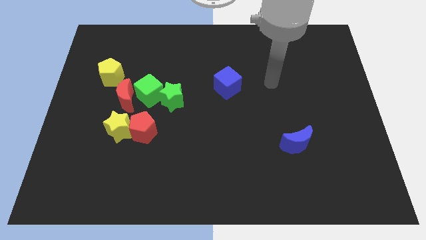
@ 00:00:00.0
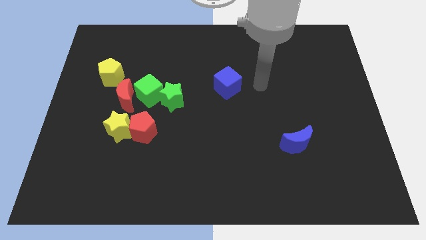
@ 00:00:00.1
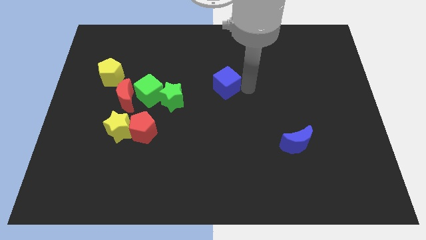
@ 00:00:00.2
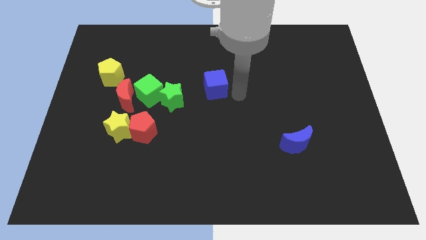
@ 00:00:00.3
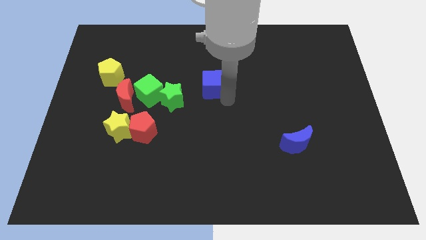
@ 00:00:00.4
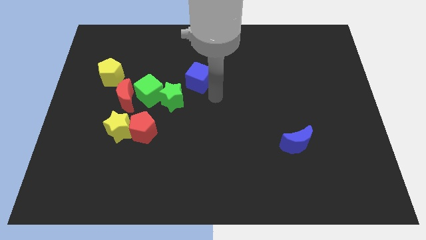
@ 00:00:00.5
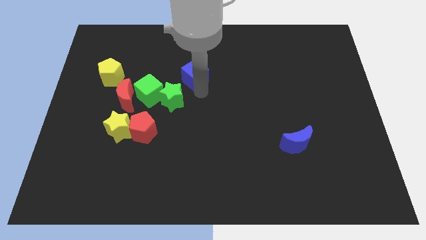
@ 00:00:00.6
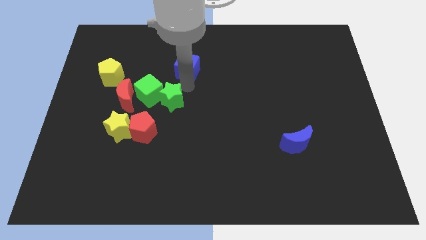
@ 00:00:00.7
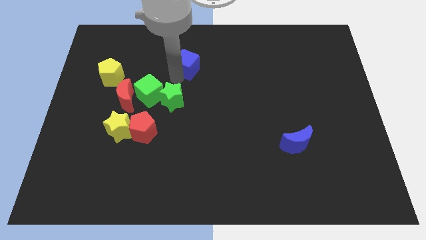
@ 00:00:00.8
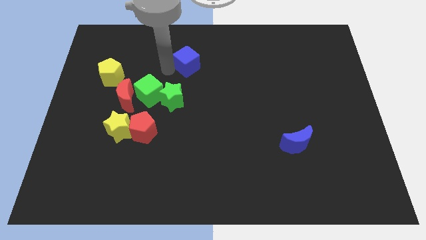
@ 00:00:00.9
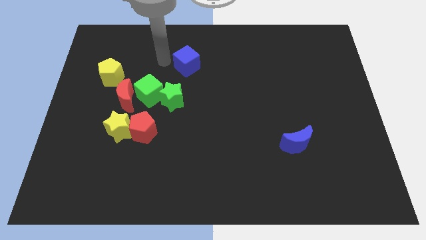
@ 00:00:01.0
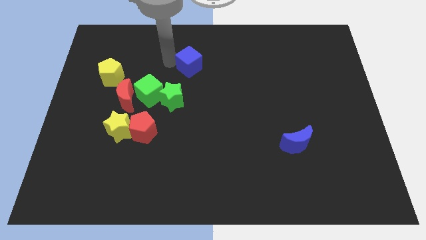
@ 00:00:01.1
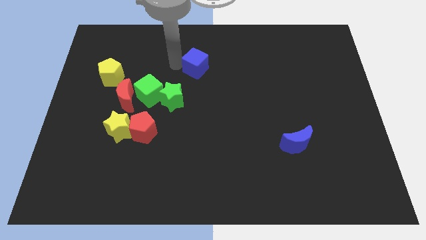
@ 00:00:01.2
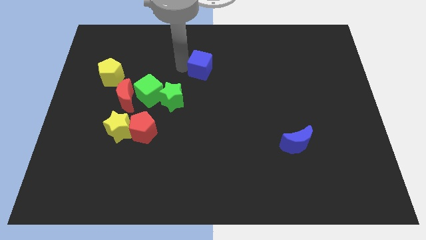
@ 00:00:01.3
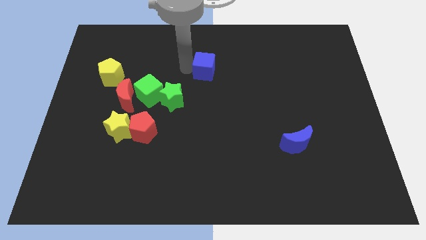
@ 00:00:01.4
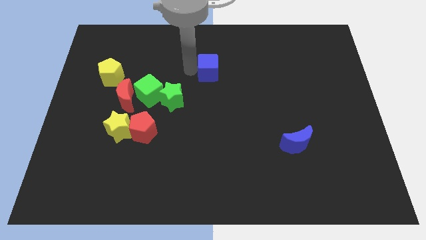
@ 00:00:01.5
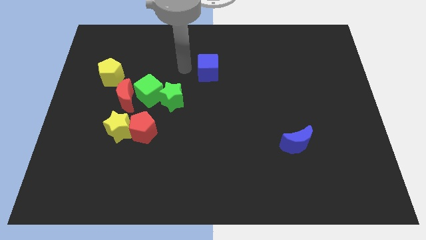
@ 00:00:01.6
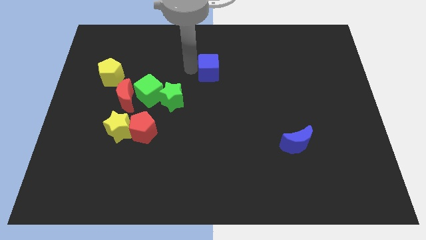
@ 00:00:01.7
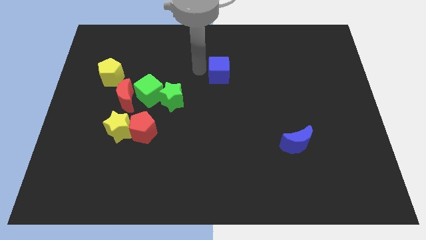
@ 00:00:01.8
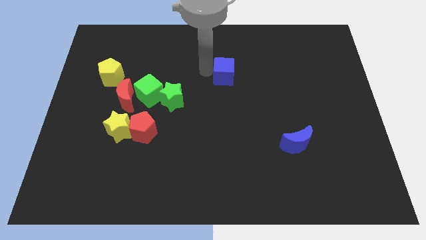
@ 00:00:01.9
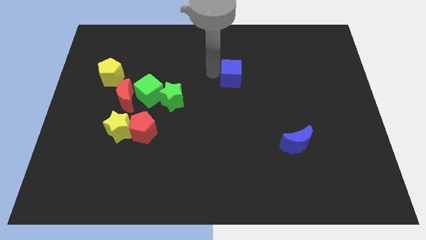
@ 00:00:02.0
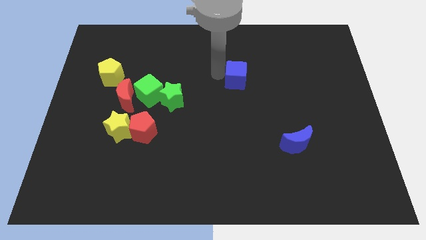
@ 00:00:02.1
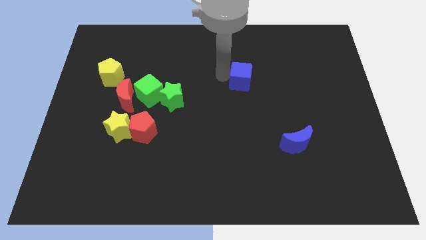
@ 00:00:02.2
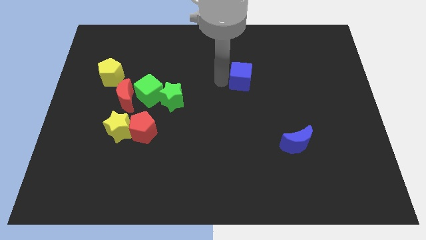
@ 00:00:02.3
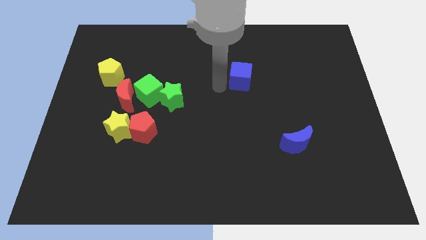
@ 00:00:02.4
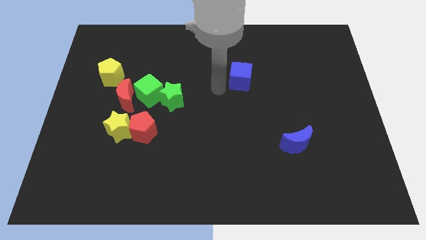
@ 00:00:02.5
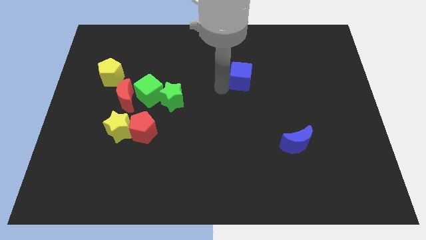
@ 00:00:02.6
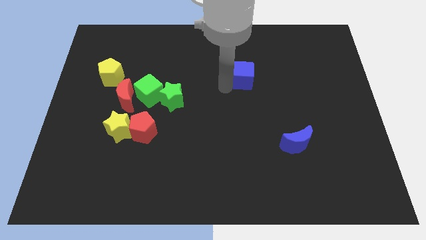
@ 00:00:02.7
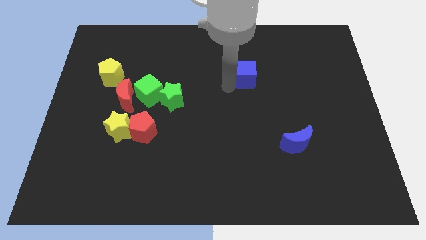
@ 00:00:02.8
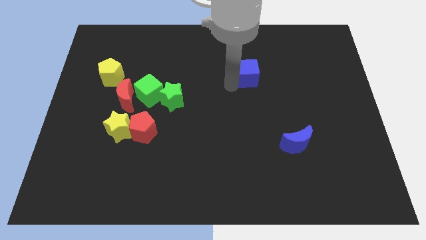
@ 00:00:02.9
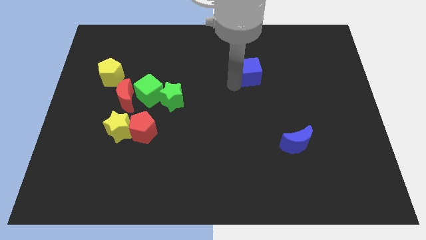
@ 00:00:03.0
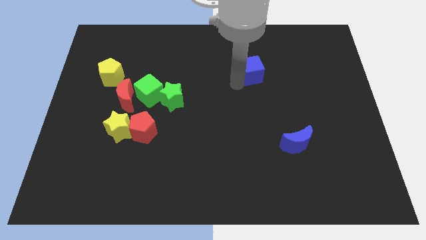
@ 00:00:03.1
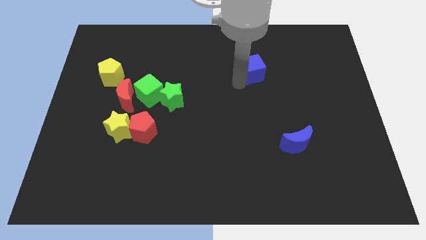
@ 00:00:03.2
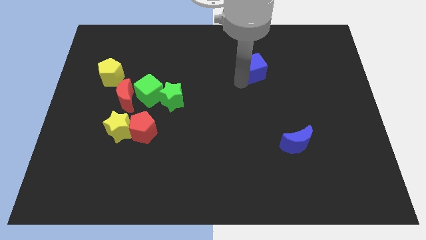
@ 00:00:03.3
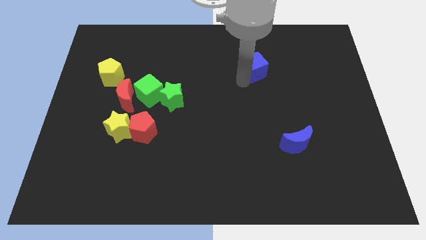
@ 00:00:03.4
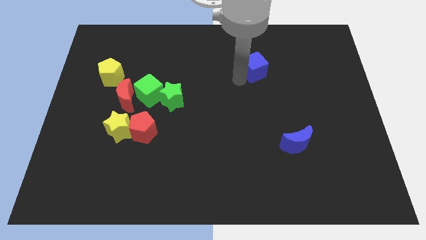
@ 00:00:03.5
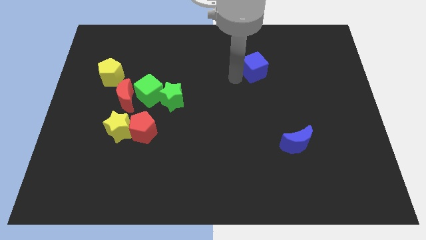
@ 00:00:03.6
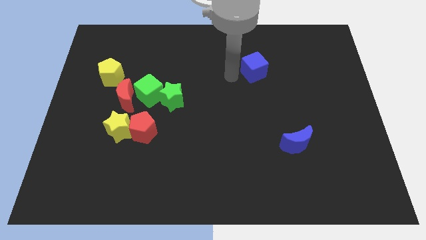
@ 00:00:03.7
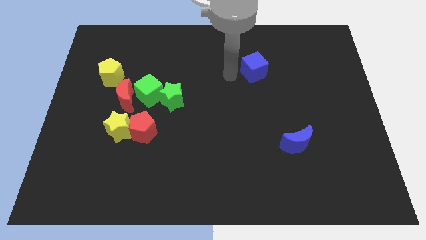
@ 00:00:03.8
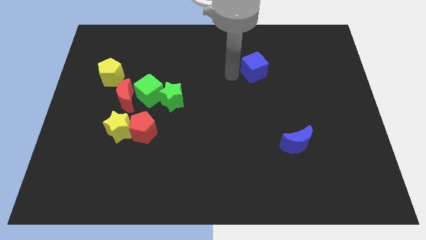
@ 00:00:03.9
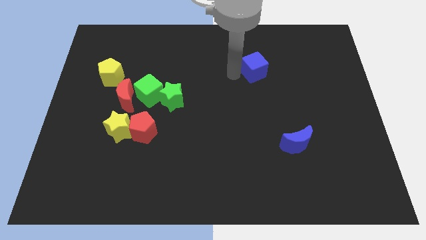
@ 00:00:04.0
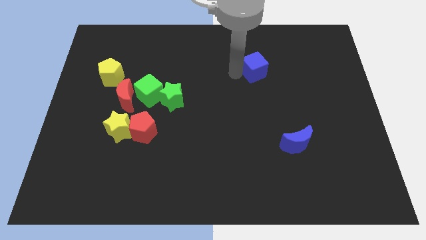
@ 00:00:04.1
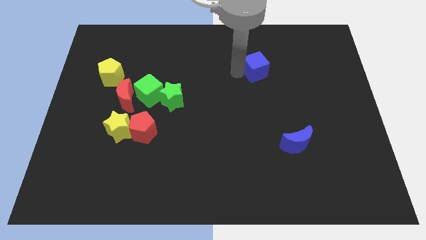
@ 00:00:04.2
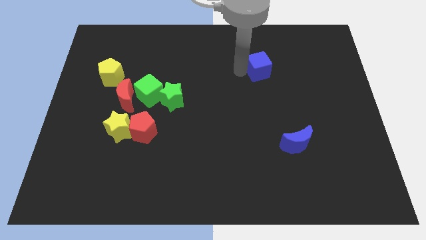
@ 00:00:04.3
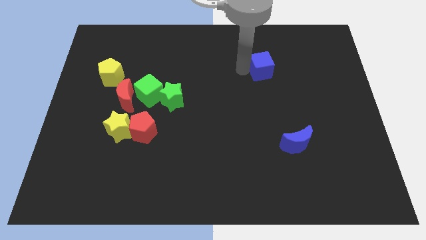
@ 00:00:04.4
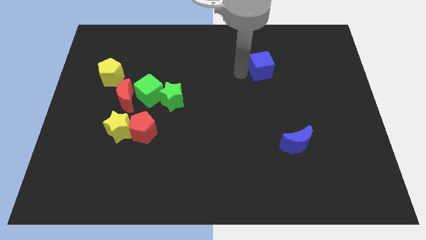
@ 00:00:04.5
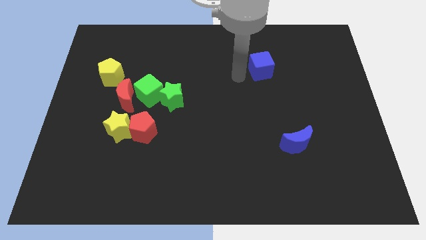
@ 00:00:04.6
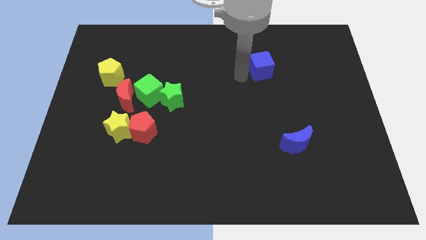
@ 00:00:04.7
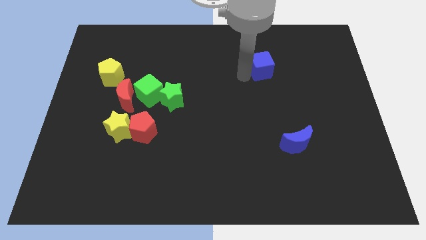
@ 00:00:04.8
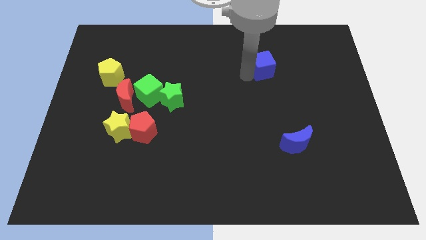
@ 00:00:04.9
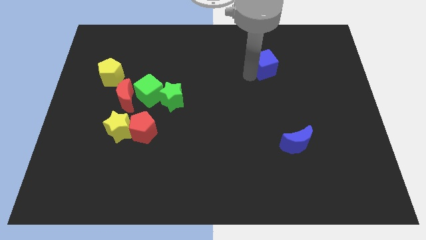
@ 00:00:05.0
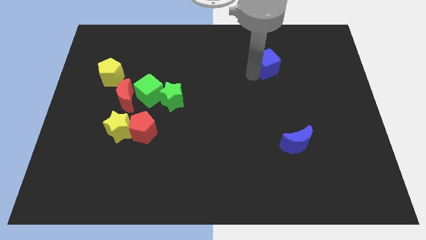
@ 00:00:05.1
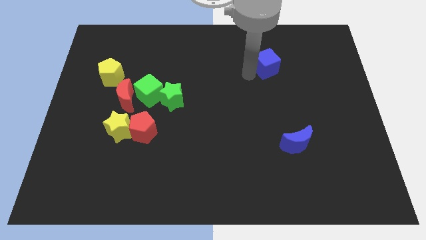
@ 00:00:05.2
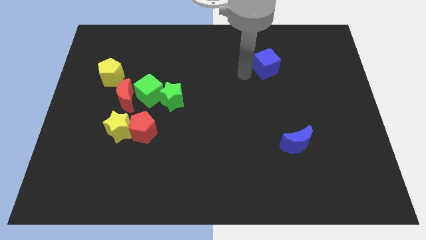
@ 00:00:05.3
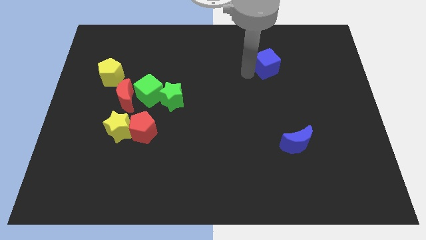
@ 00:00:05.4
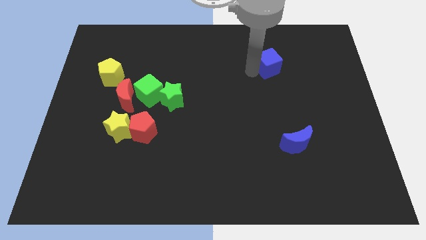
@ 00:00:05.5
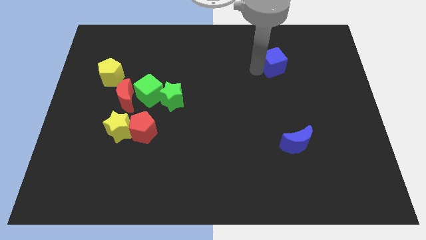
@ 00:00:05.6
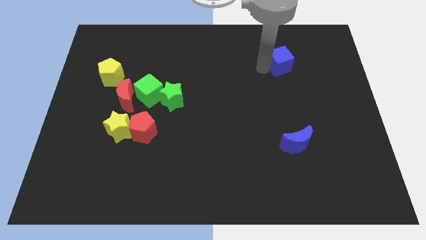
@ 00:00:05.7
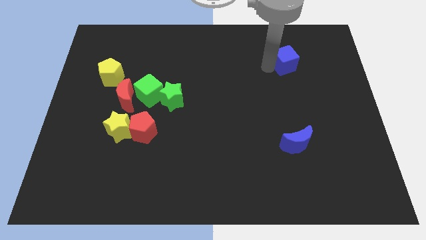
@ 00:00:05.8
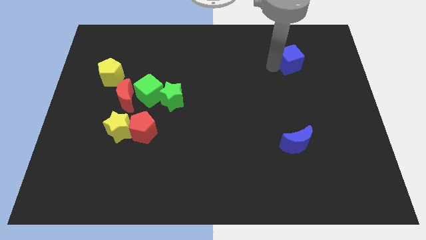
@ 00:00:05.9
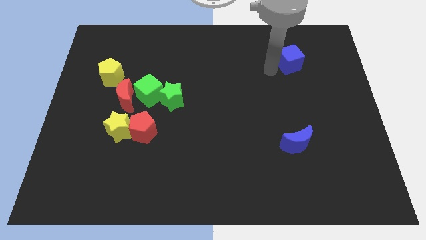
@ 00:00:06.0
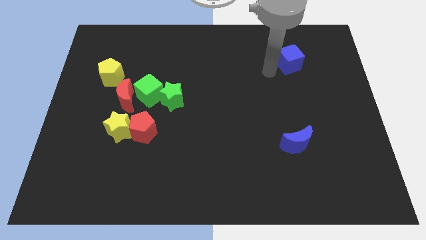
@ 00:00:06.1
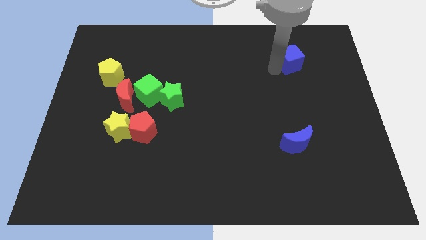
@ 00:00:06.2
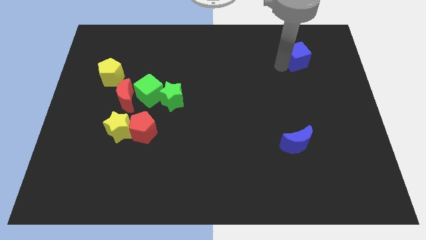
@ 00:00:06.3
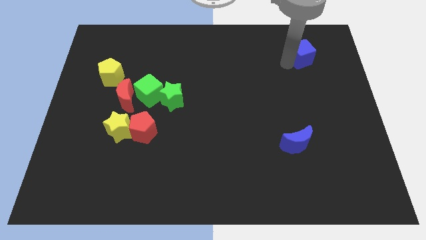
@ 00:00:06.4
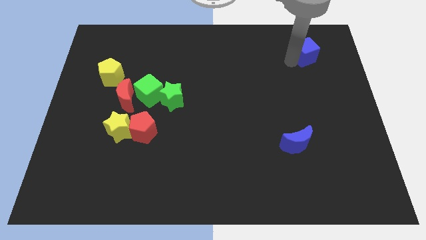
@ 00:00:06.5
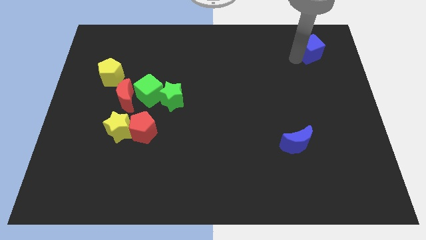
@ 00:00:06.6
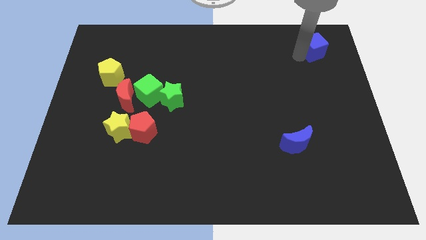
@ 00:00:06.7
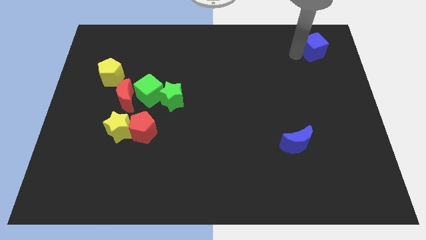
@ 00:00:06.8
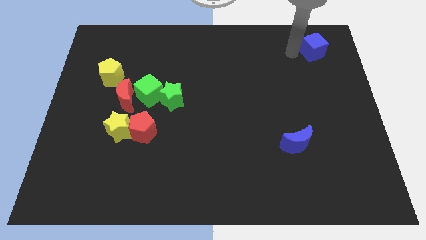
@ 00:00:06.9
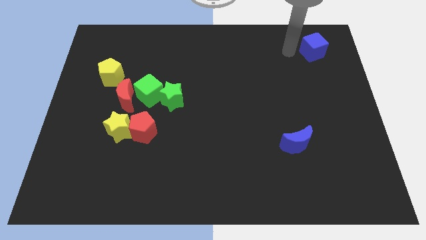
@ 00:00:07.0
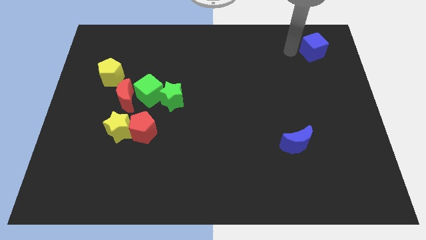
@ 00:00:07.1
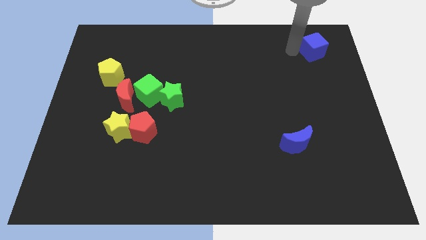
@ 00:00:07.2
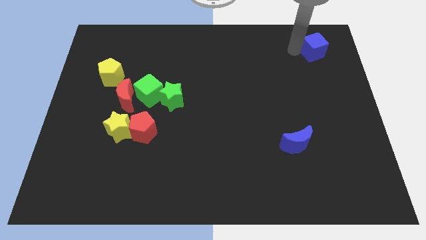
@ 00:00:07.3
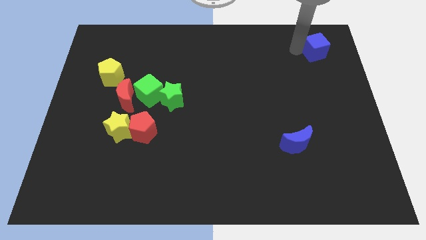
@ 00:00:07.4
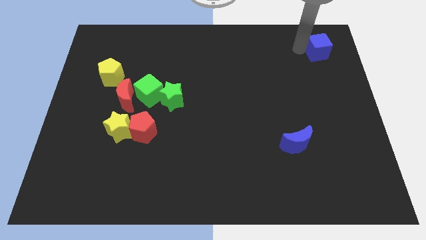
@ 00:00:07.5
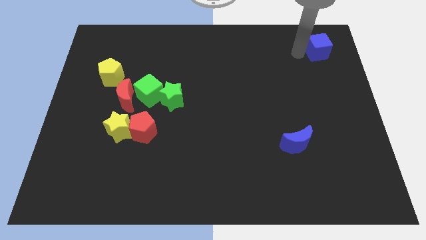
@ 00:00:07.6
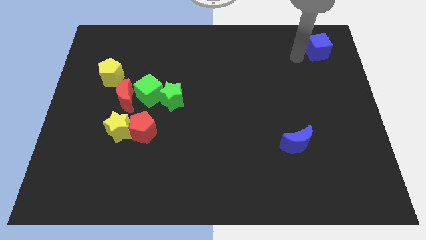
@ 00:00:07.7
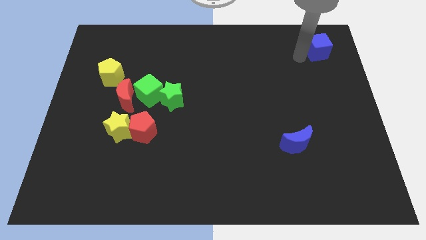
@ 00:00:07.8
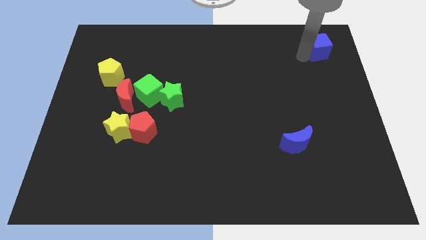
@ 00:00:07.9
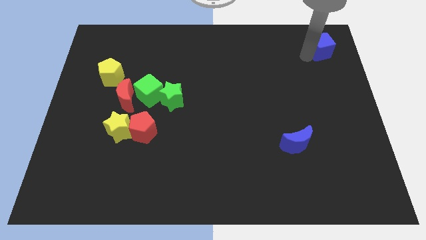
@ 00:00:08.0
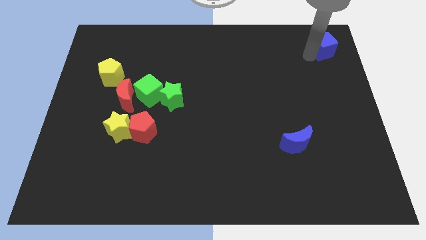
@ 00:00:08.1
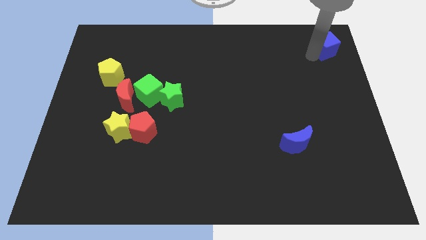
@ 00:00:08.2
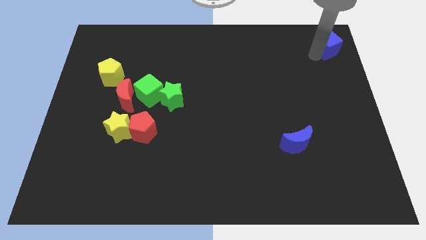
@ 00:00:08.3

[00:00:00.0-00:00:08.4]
push the blue cube to the top right of the board
